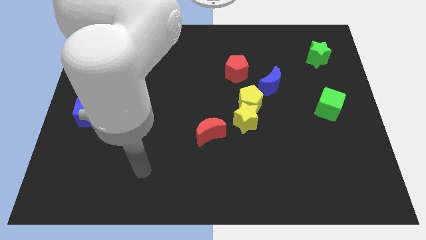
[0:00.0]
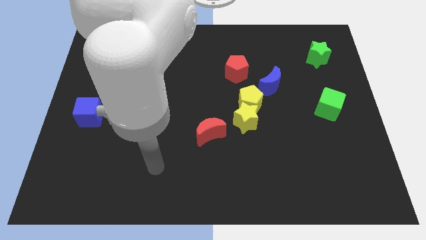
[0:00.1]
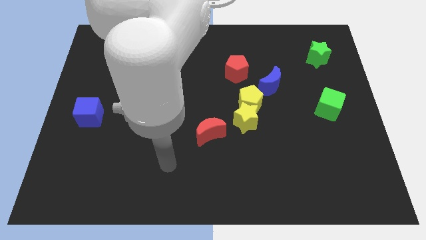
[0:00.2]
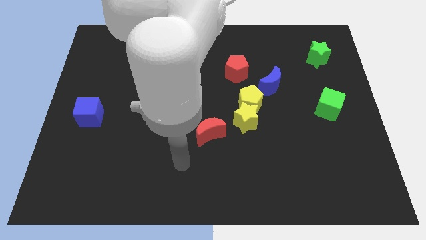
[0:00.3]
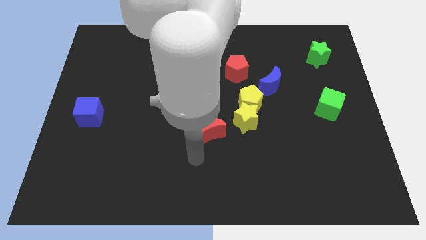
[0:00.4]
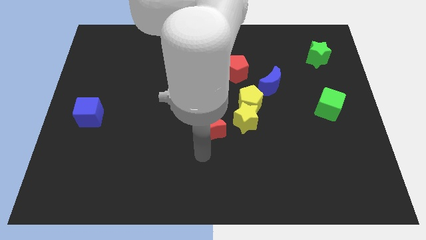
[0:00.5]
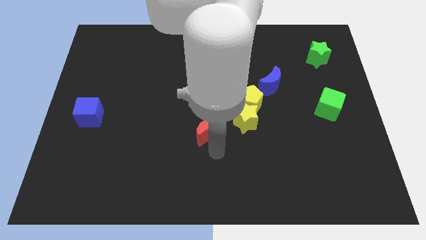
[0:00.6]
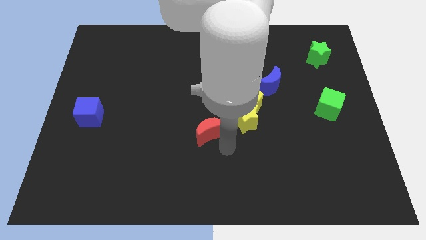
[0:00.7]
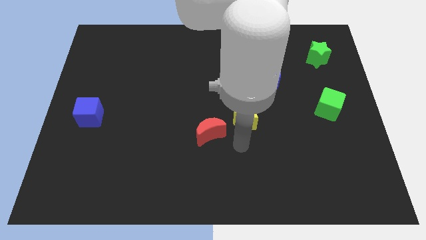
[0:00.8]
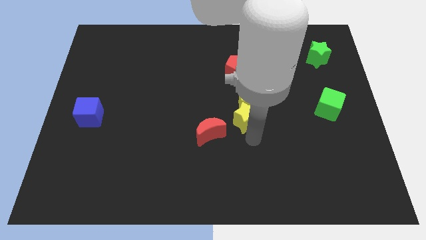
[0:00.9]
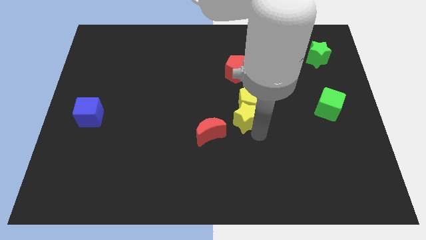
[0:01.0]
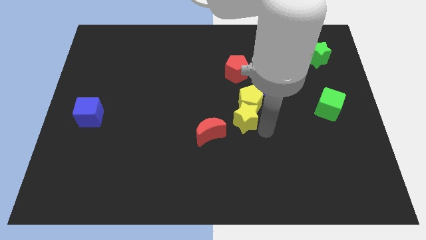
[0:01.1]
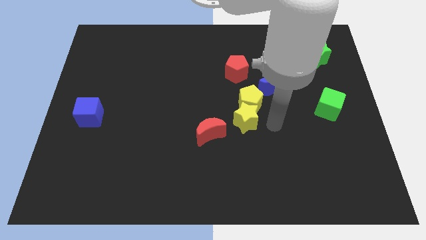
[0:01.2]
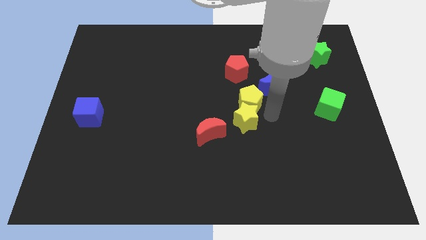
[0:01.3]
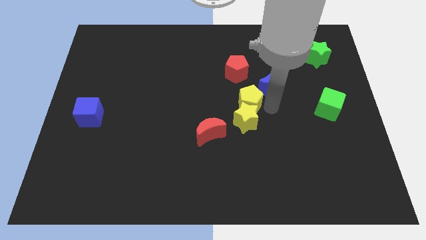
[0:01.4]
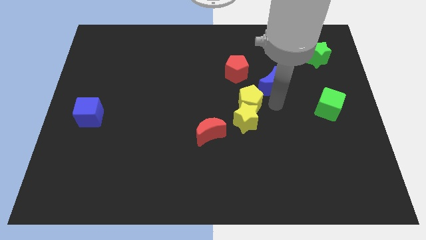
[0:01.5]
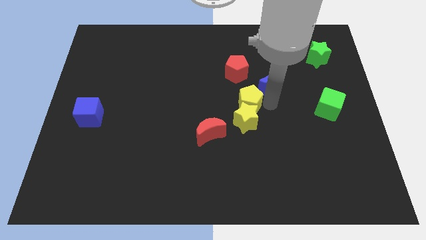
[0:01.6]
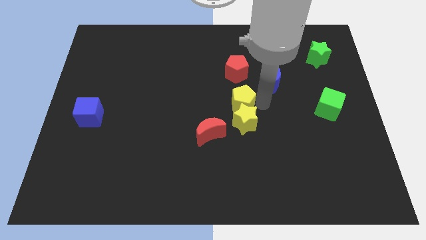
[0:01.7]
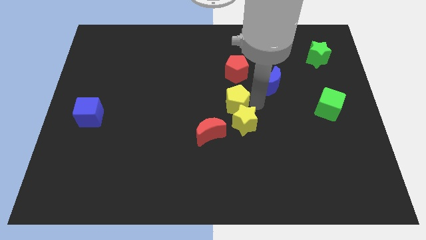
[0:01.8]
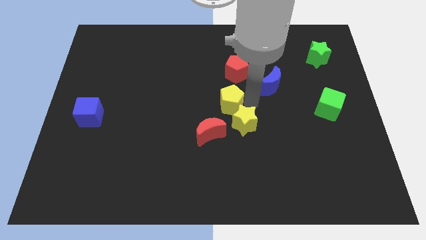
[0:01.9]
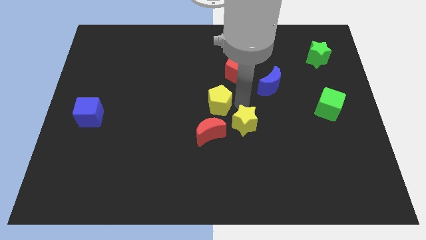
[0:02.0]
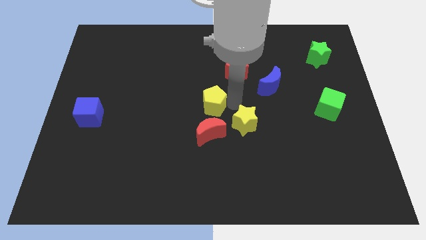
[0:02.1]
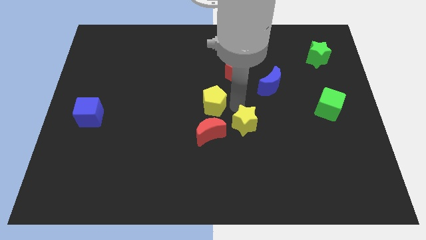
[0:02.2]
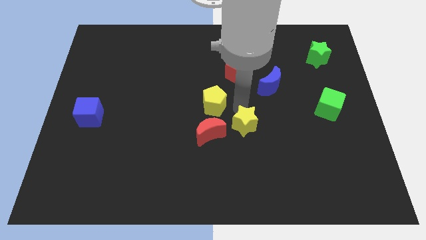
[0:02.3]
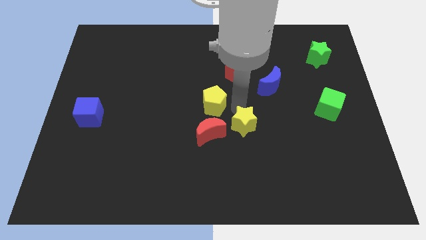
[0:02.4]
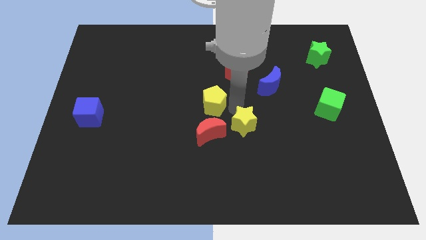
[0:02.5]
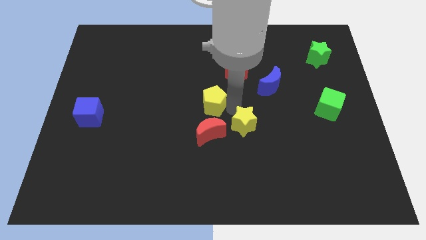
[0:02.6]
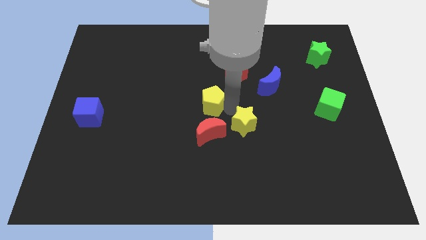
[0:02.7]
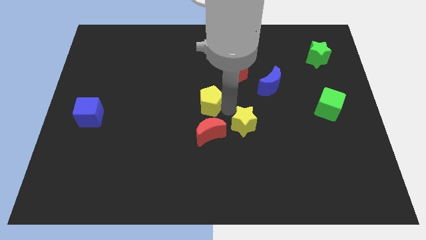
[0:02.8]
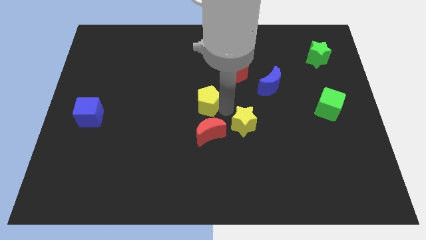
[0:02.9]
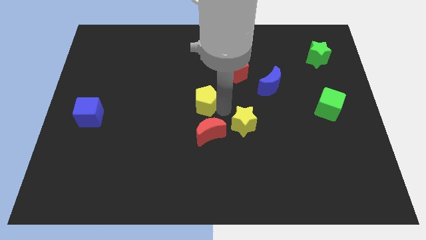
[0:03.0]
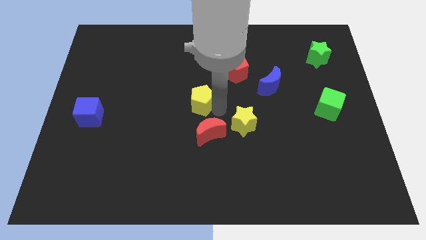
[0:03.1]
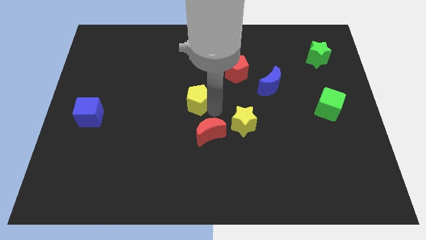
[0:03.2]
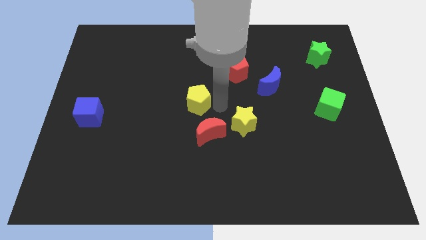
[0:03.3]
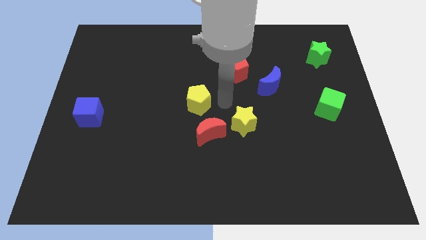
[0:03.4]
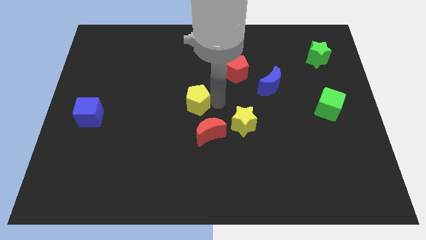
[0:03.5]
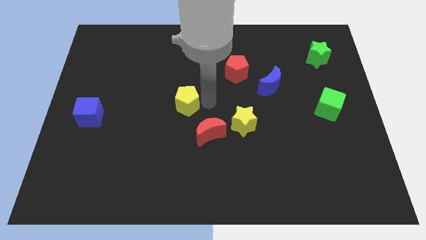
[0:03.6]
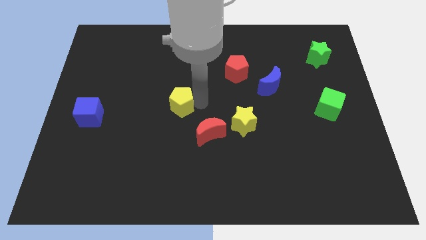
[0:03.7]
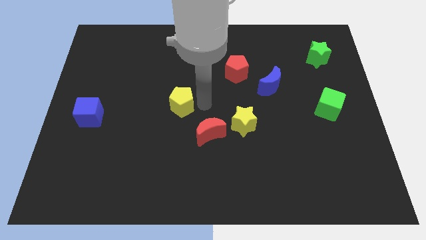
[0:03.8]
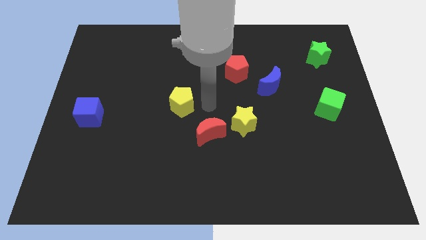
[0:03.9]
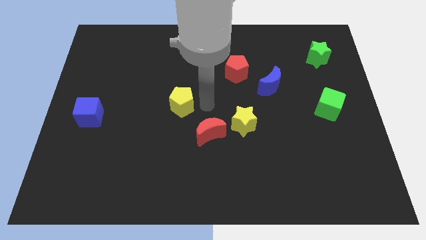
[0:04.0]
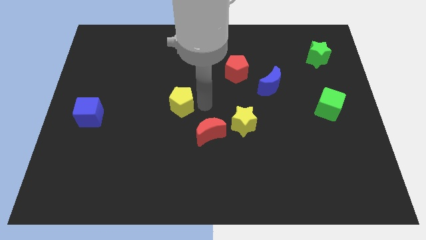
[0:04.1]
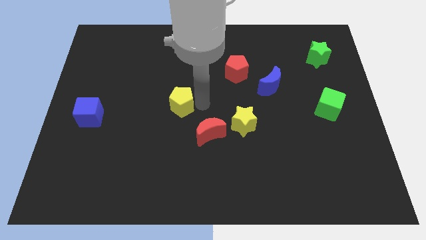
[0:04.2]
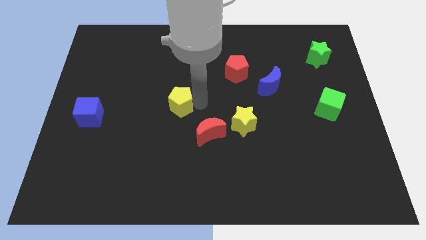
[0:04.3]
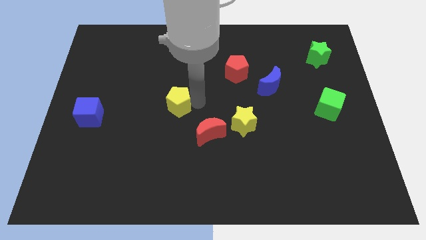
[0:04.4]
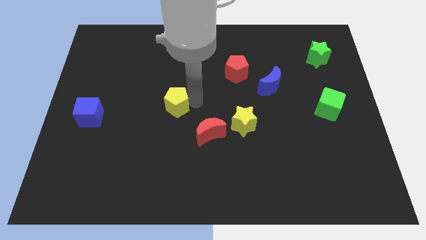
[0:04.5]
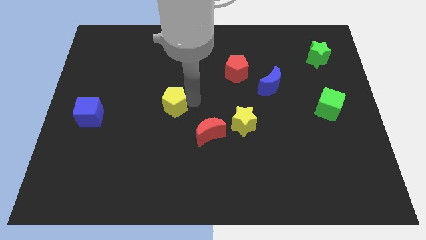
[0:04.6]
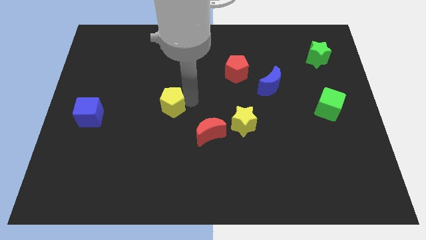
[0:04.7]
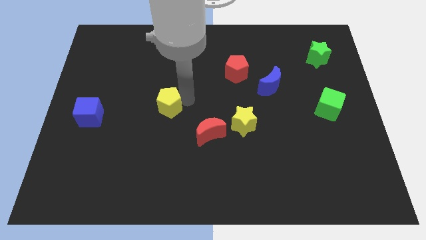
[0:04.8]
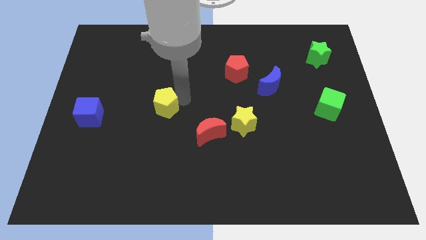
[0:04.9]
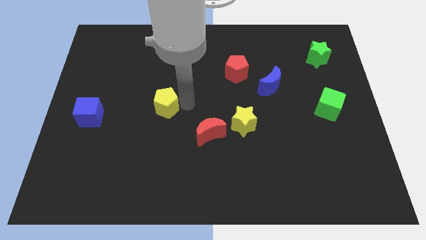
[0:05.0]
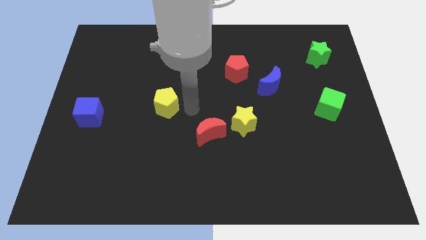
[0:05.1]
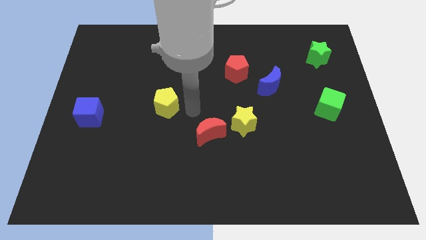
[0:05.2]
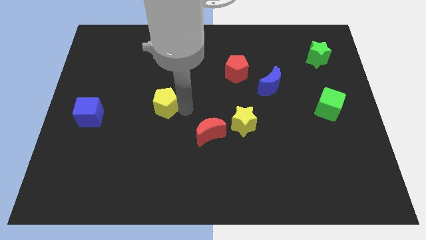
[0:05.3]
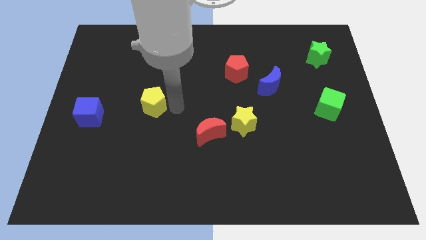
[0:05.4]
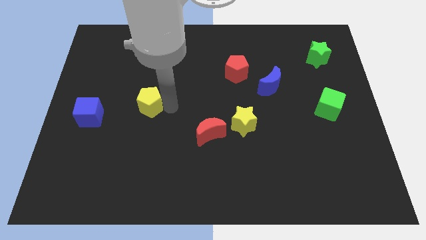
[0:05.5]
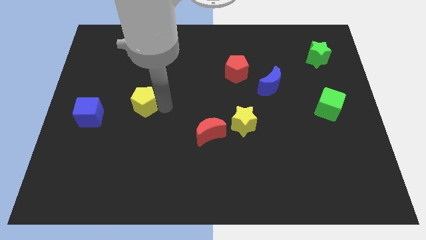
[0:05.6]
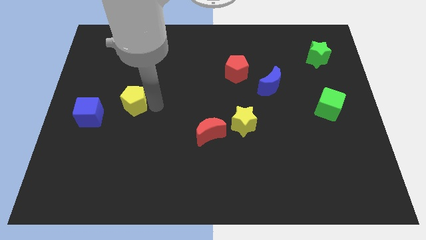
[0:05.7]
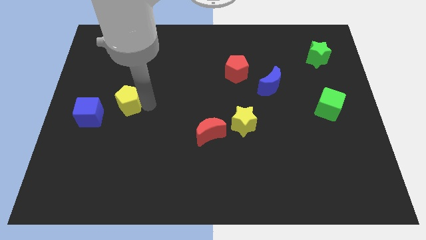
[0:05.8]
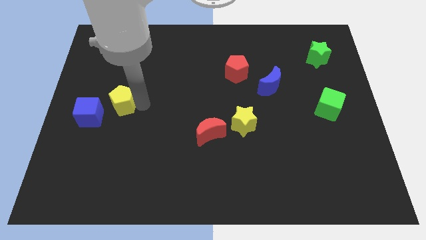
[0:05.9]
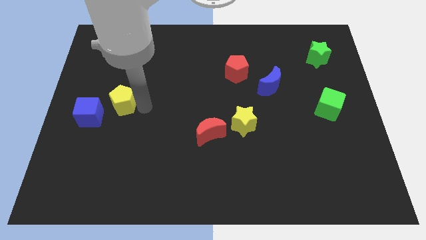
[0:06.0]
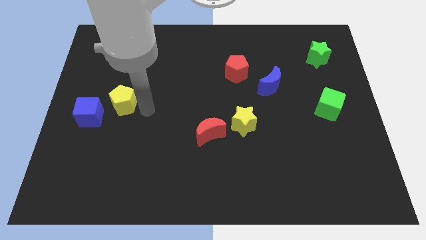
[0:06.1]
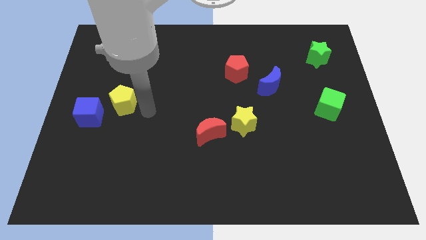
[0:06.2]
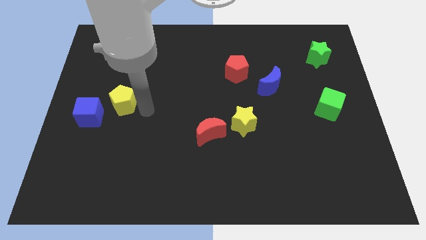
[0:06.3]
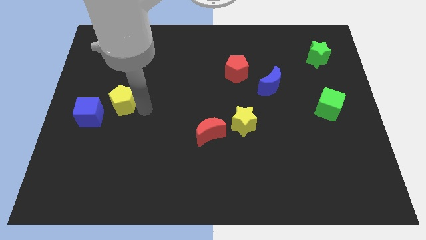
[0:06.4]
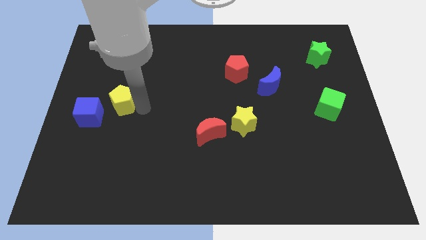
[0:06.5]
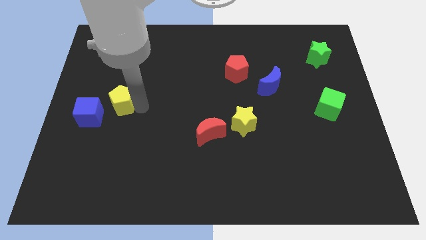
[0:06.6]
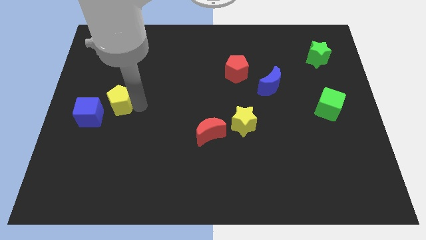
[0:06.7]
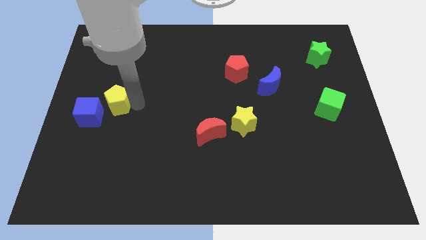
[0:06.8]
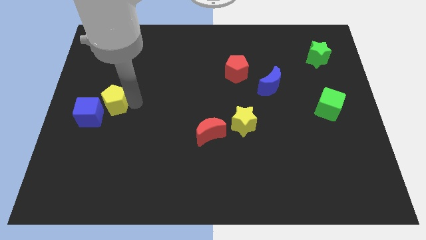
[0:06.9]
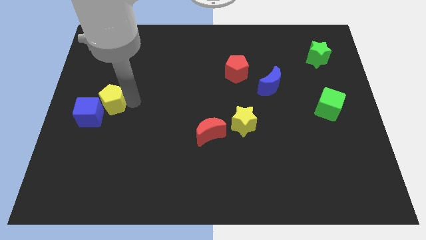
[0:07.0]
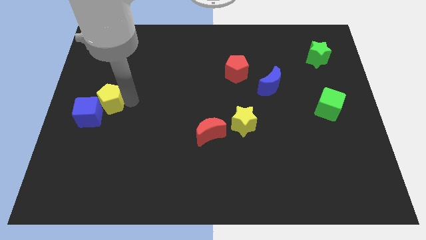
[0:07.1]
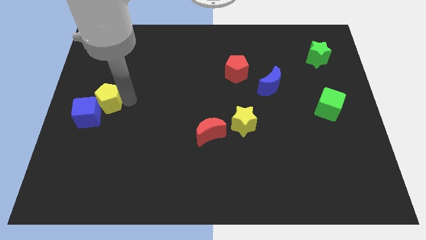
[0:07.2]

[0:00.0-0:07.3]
push the yellow pentagon to the left side

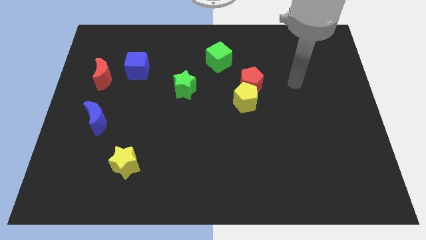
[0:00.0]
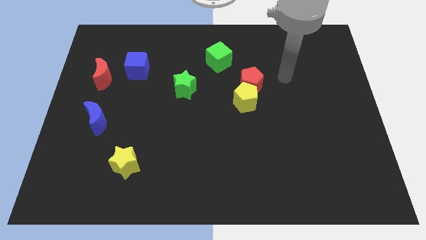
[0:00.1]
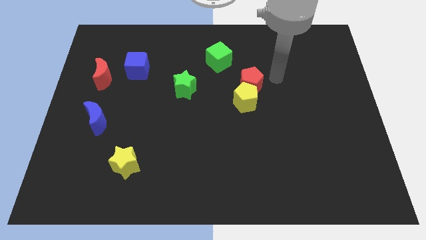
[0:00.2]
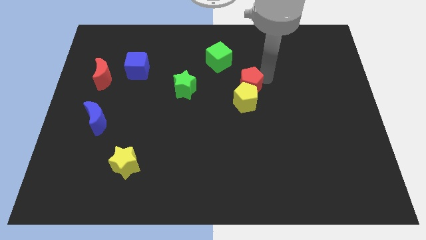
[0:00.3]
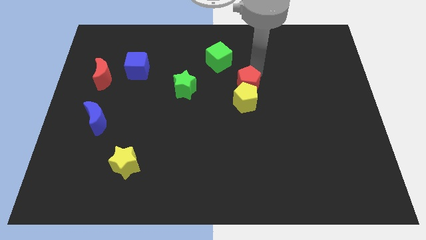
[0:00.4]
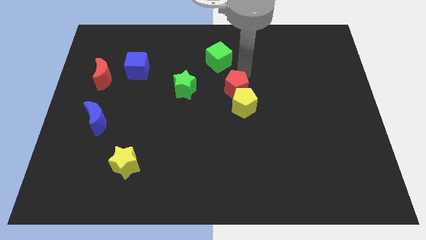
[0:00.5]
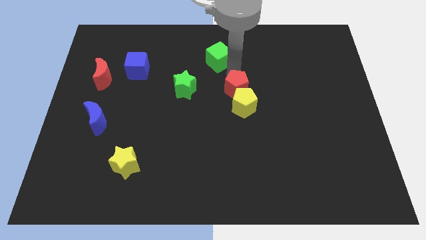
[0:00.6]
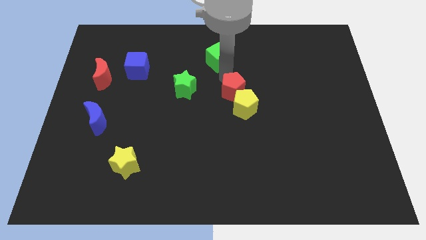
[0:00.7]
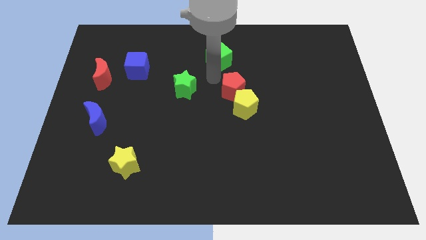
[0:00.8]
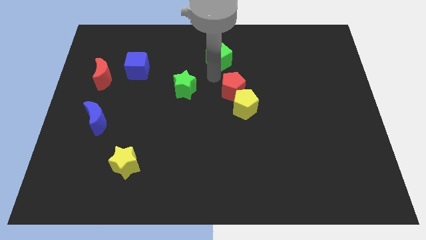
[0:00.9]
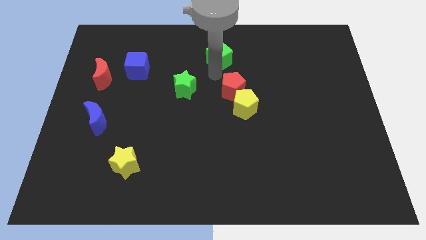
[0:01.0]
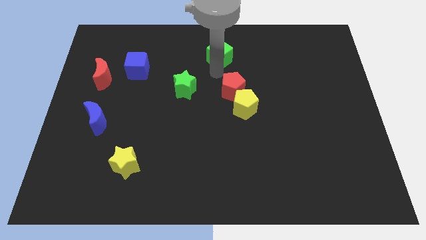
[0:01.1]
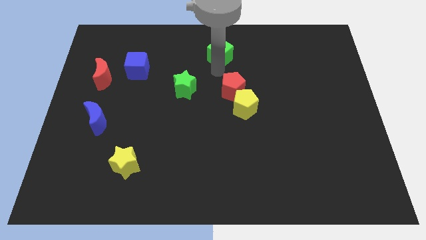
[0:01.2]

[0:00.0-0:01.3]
put the green cube to the top
